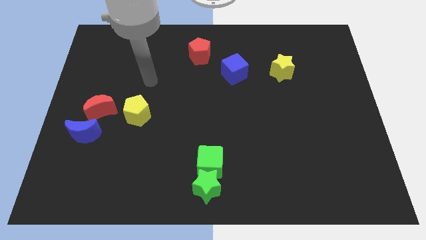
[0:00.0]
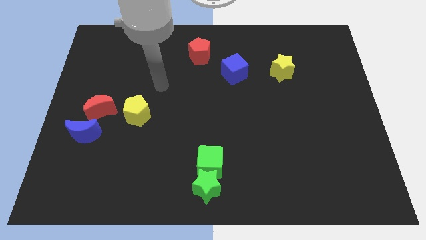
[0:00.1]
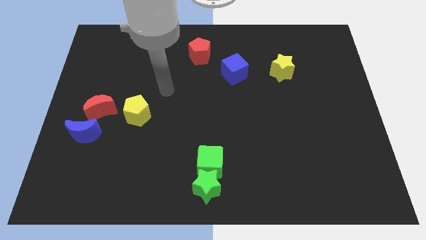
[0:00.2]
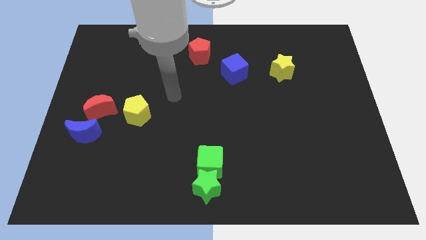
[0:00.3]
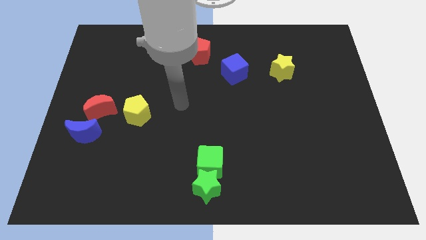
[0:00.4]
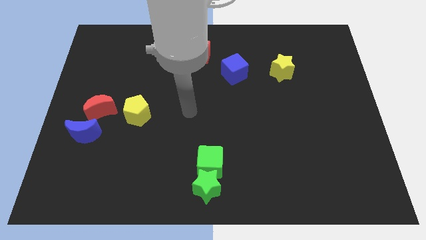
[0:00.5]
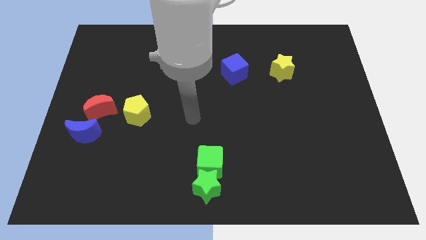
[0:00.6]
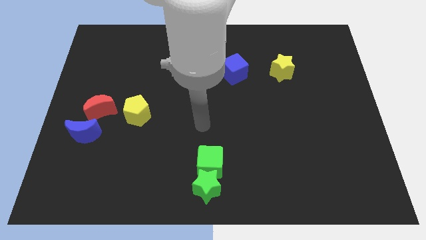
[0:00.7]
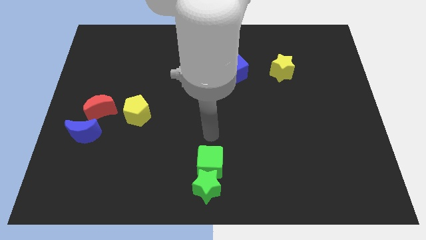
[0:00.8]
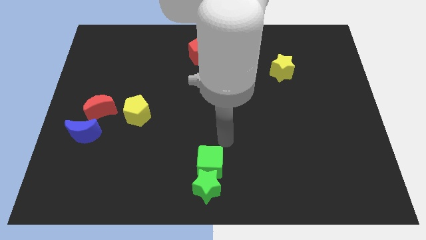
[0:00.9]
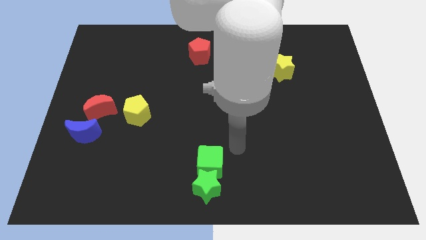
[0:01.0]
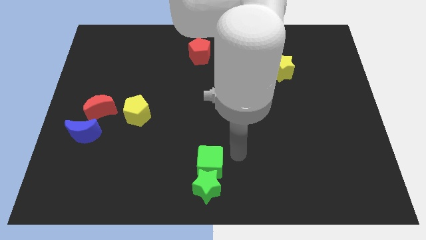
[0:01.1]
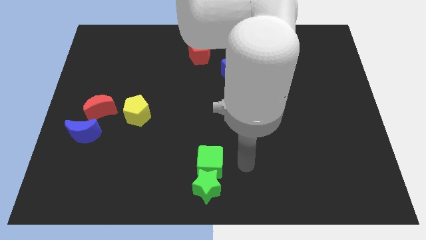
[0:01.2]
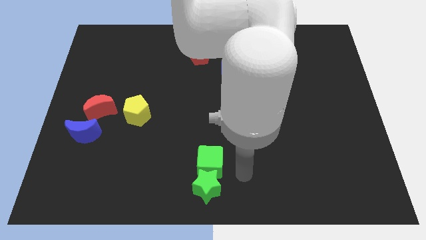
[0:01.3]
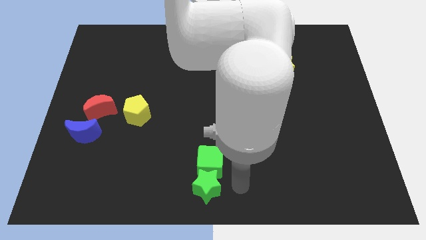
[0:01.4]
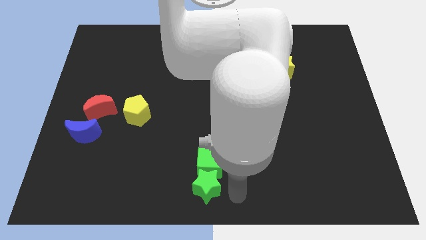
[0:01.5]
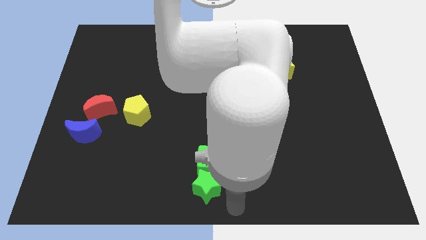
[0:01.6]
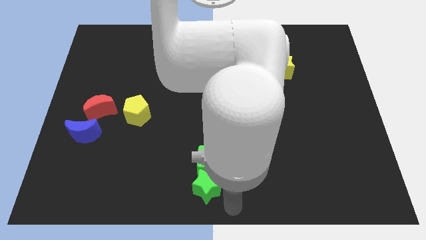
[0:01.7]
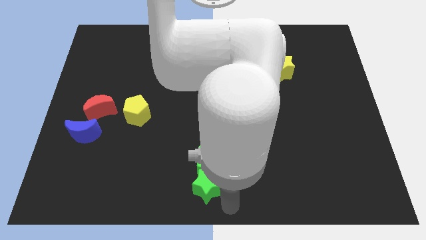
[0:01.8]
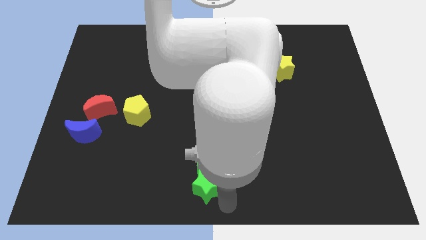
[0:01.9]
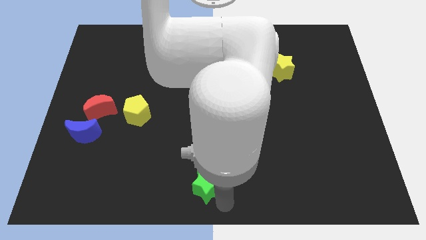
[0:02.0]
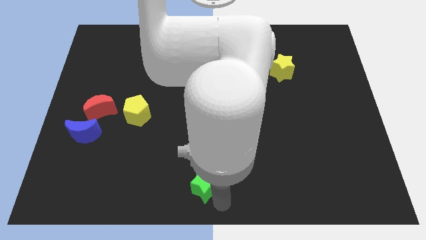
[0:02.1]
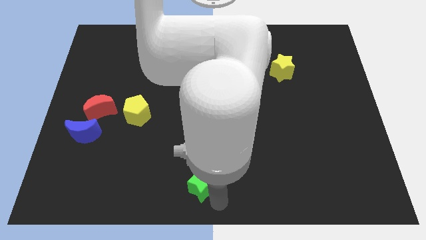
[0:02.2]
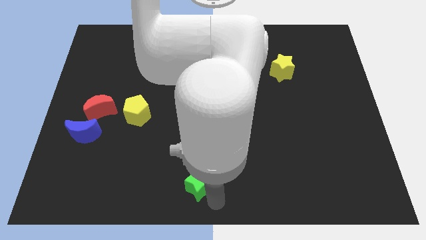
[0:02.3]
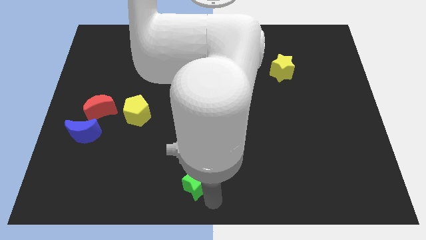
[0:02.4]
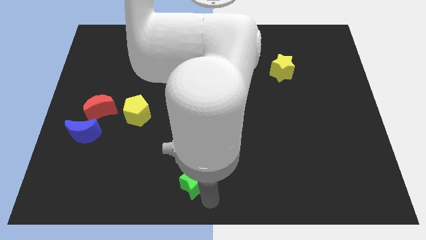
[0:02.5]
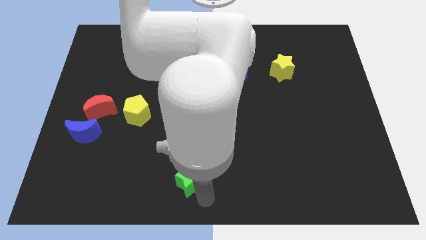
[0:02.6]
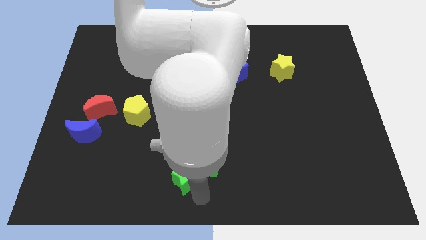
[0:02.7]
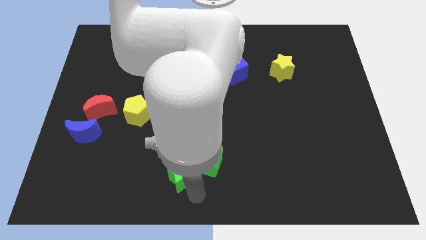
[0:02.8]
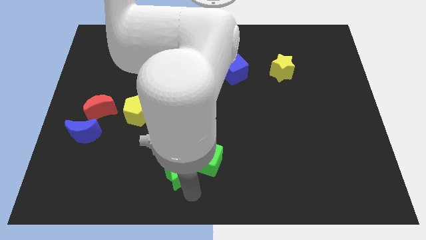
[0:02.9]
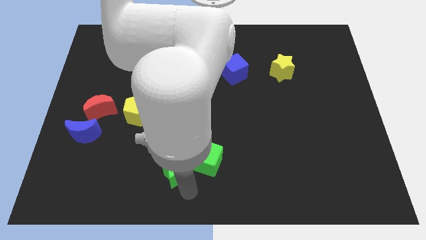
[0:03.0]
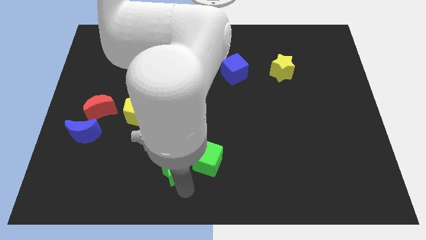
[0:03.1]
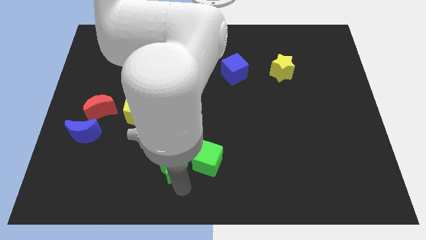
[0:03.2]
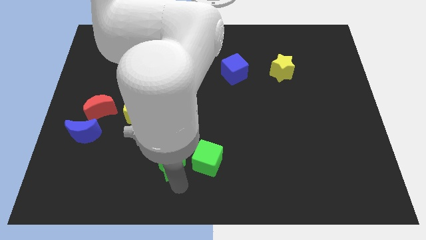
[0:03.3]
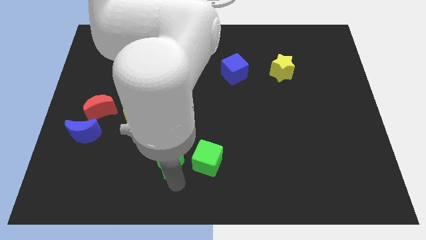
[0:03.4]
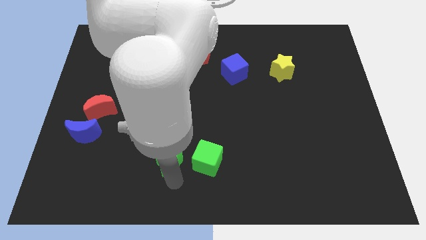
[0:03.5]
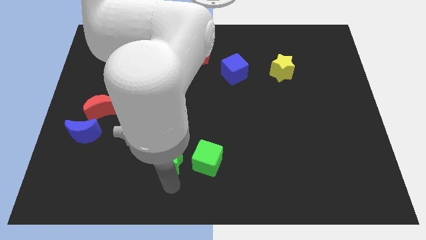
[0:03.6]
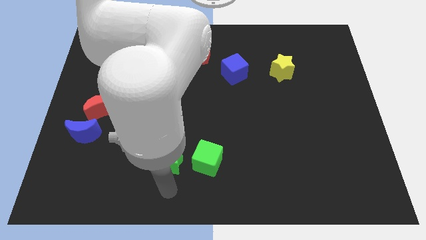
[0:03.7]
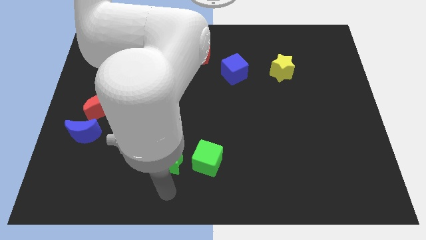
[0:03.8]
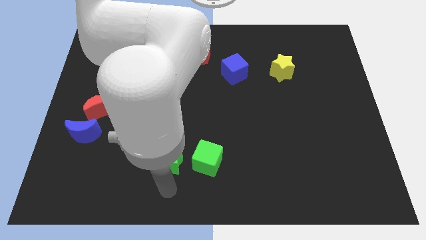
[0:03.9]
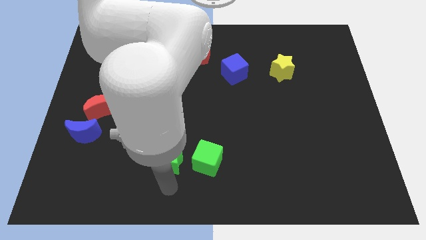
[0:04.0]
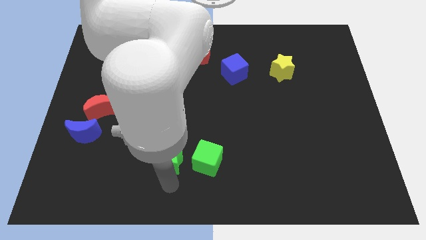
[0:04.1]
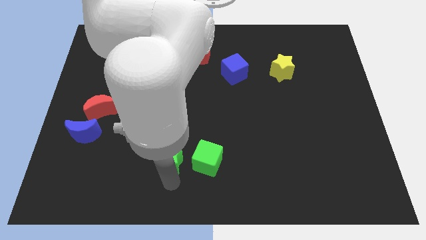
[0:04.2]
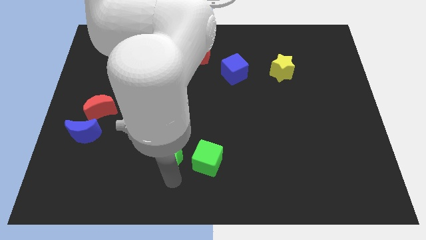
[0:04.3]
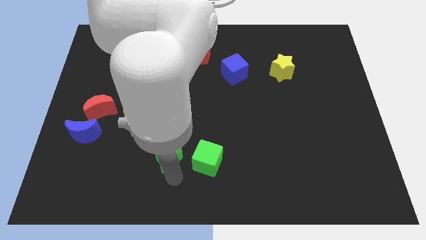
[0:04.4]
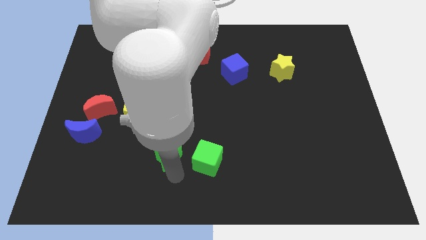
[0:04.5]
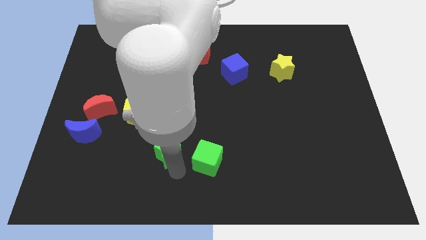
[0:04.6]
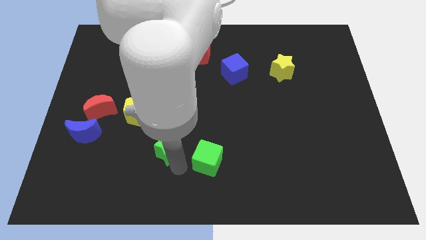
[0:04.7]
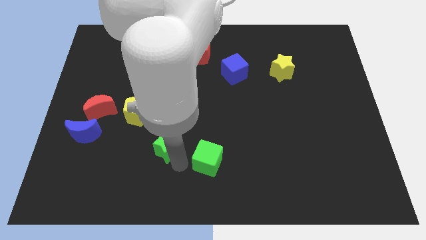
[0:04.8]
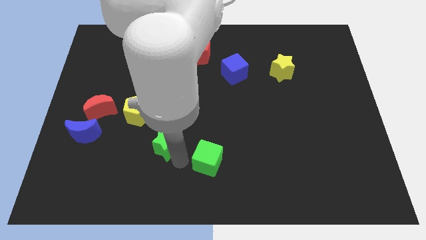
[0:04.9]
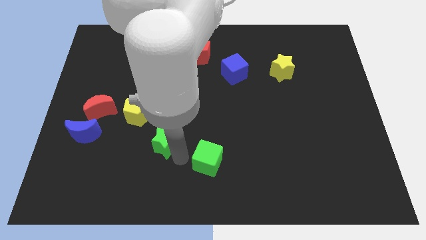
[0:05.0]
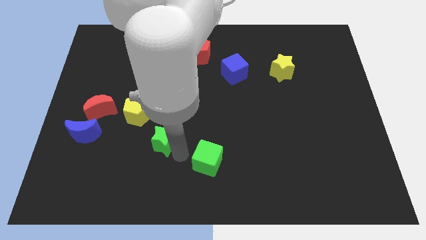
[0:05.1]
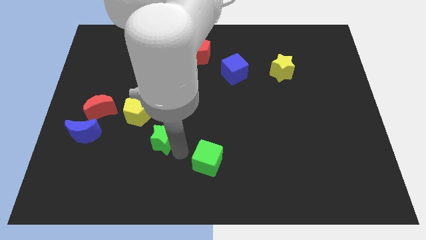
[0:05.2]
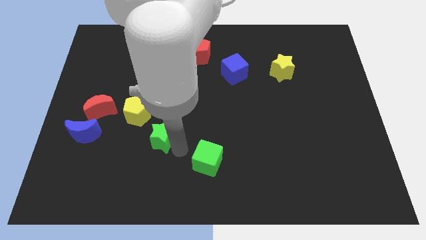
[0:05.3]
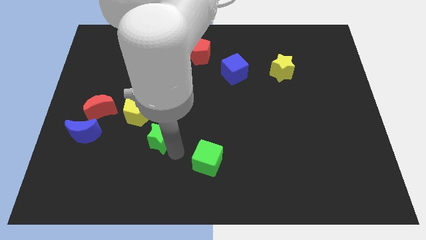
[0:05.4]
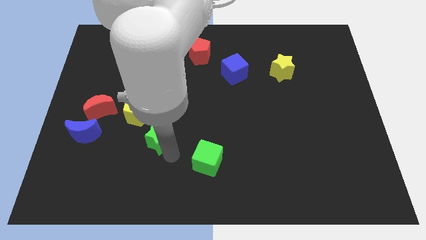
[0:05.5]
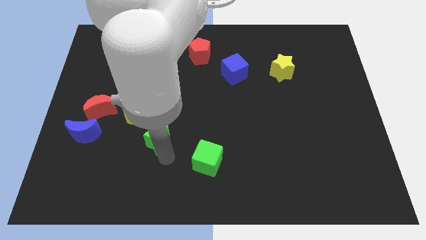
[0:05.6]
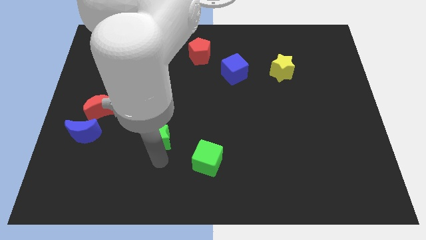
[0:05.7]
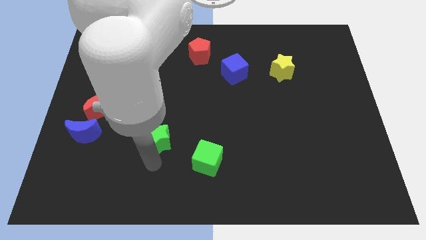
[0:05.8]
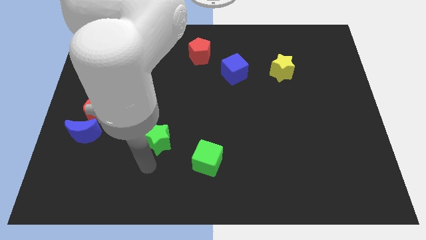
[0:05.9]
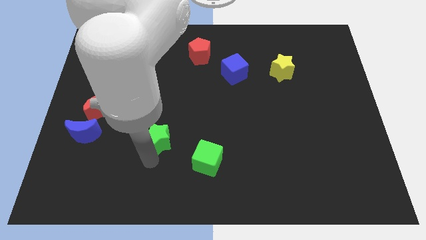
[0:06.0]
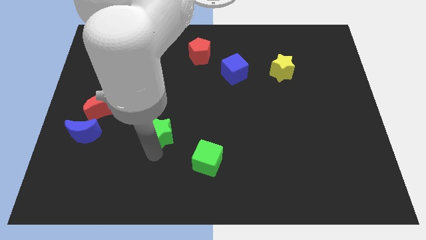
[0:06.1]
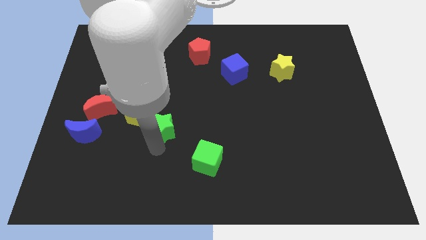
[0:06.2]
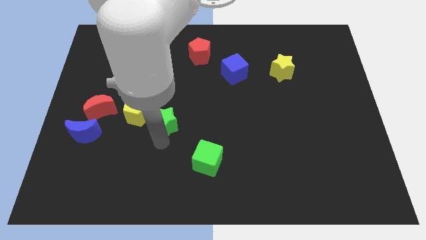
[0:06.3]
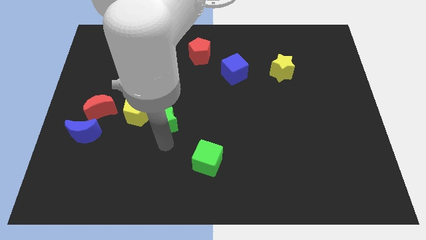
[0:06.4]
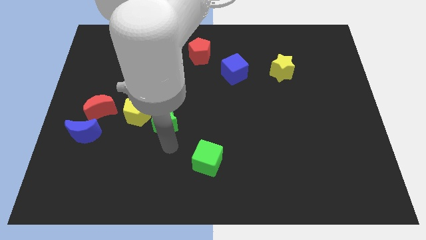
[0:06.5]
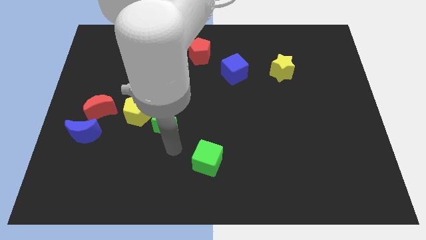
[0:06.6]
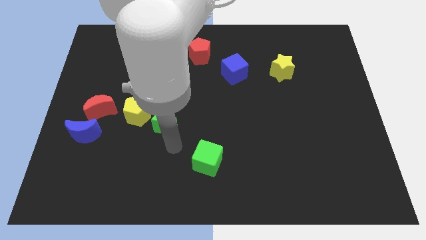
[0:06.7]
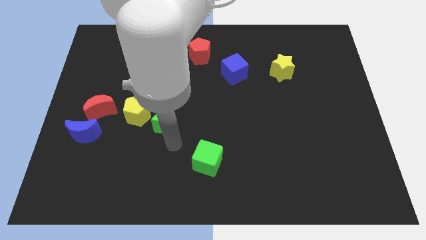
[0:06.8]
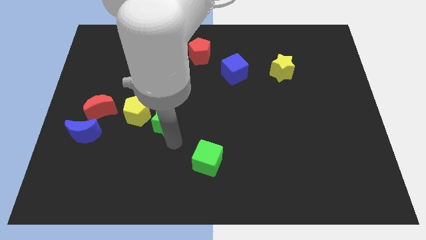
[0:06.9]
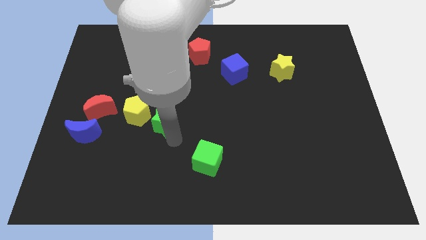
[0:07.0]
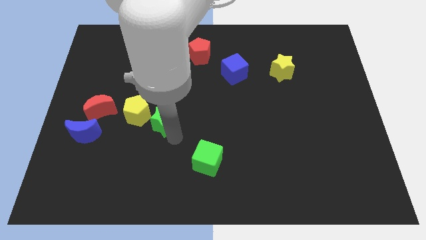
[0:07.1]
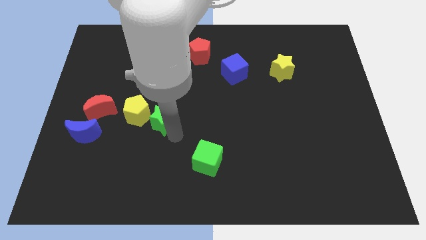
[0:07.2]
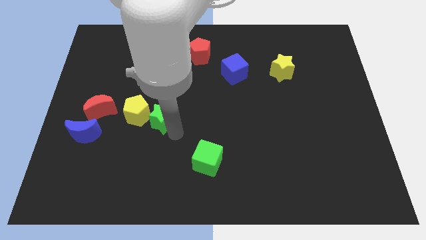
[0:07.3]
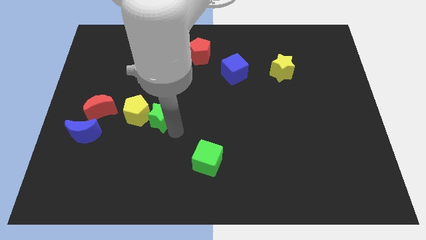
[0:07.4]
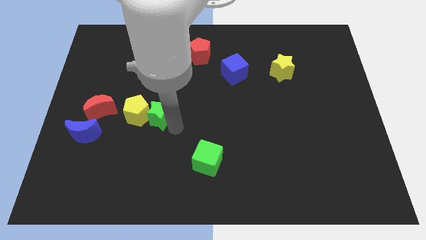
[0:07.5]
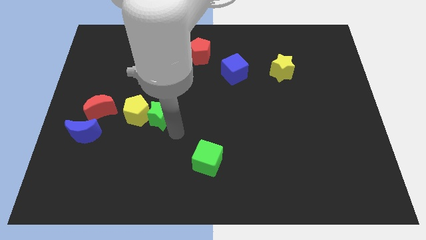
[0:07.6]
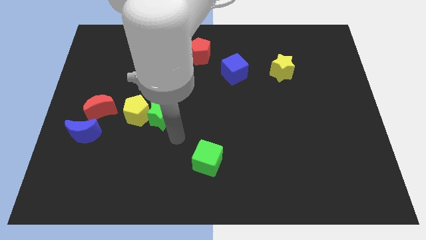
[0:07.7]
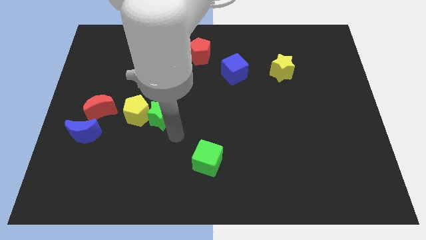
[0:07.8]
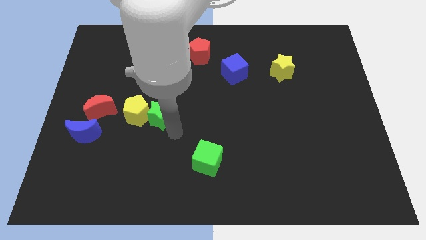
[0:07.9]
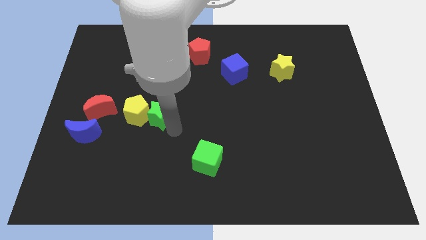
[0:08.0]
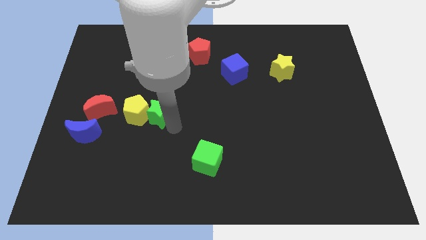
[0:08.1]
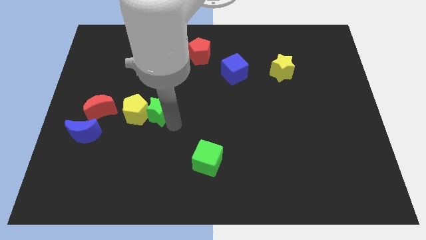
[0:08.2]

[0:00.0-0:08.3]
move the green star upwards and then left

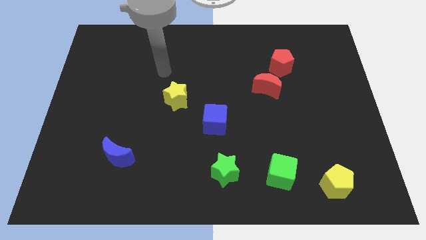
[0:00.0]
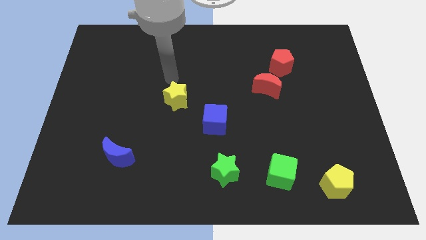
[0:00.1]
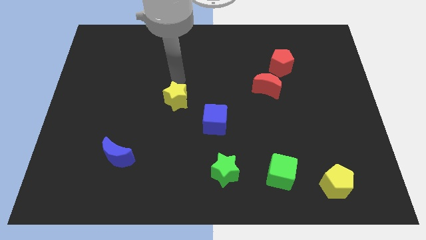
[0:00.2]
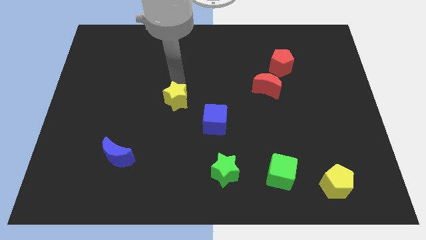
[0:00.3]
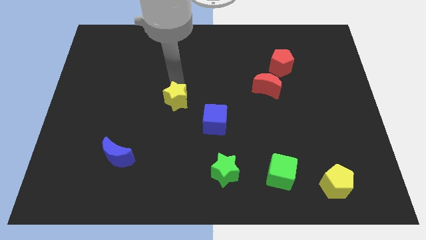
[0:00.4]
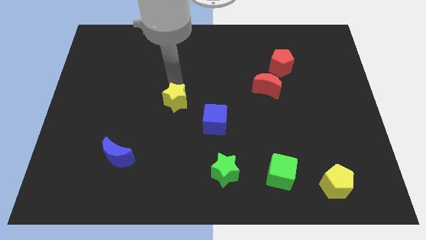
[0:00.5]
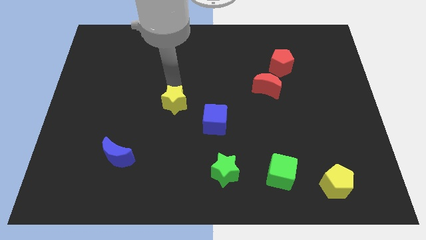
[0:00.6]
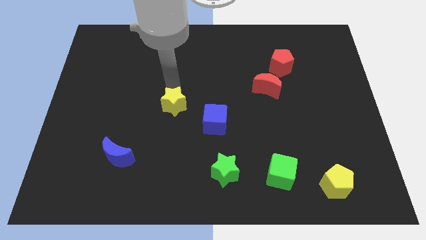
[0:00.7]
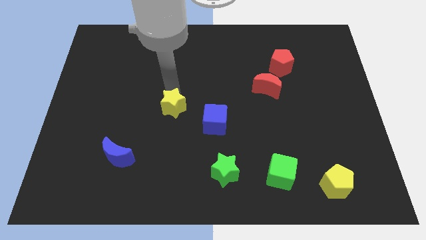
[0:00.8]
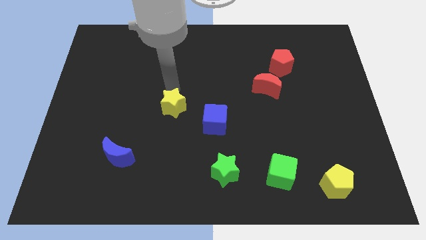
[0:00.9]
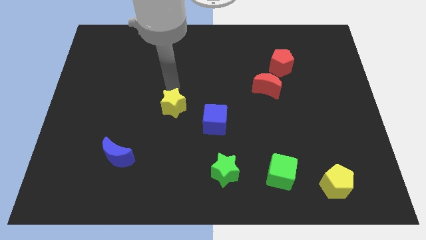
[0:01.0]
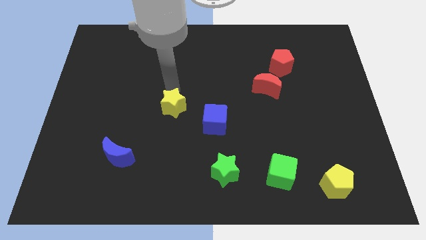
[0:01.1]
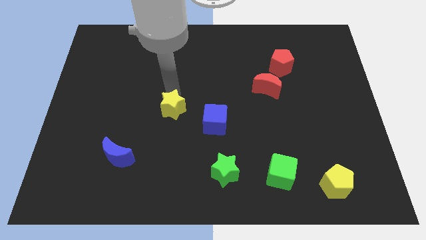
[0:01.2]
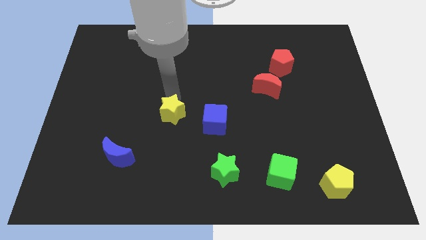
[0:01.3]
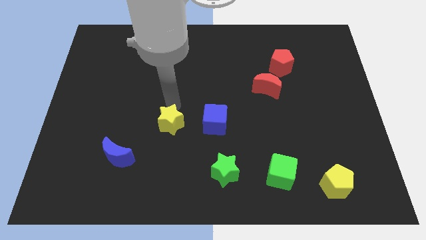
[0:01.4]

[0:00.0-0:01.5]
slide the yellow star downwards a little bit
